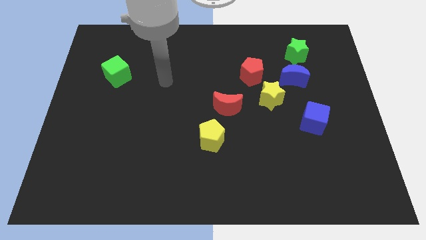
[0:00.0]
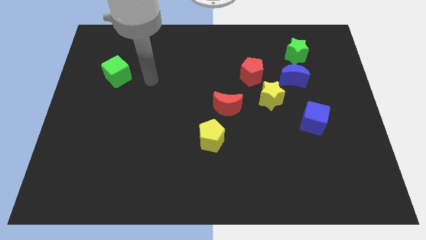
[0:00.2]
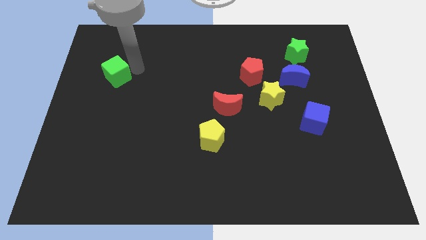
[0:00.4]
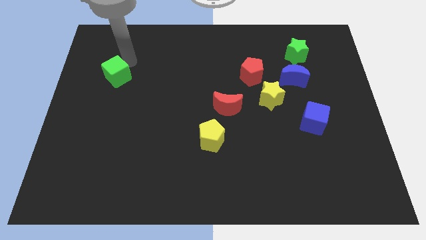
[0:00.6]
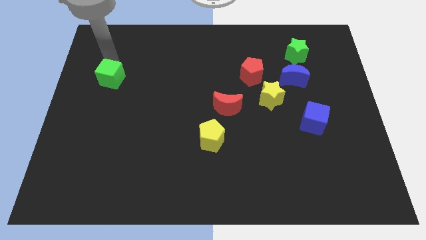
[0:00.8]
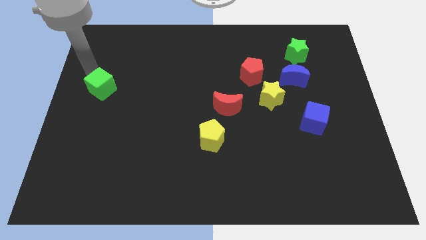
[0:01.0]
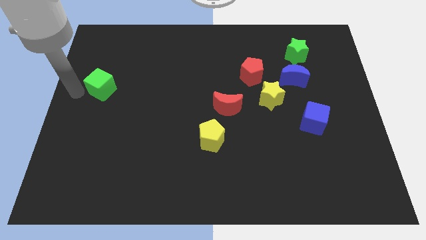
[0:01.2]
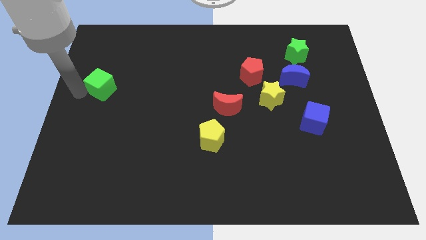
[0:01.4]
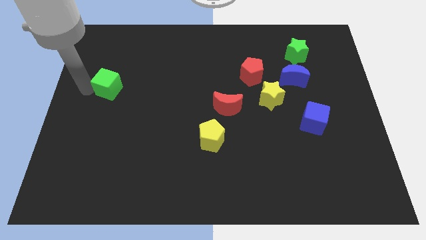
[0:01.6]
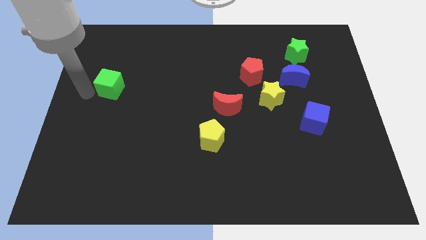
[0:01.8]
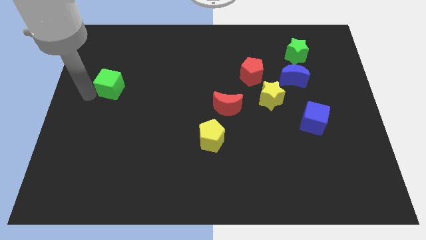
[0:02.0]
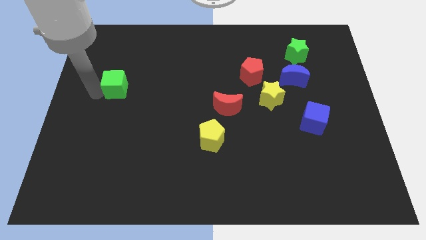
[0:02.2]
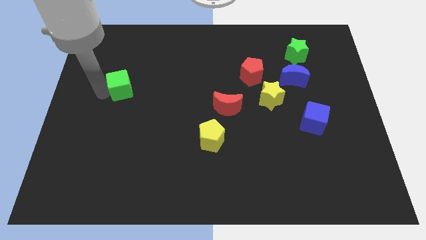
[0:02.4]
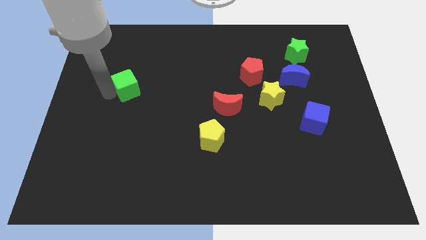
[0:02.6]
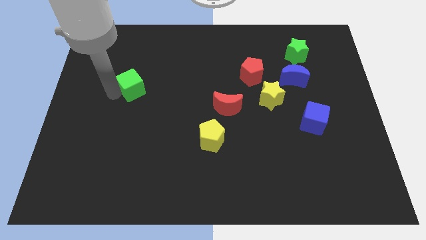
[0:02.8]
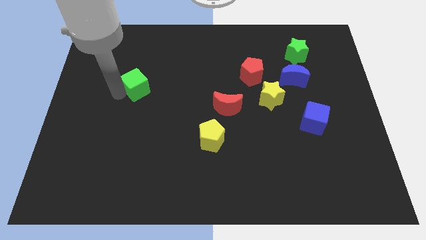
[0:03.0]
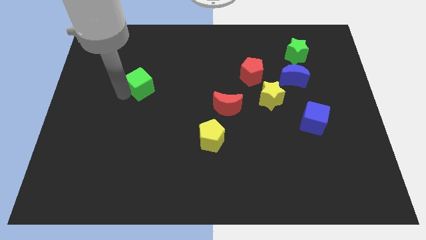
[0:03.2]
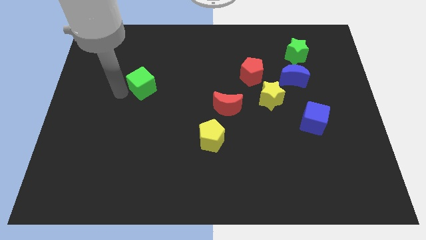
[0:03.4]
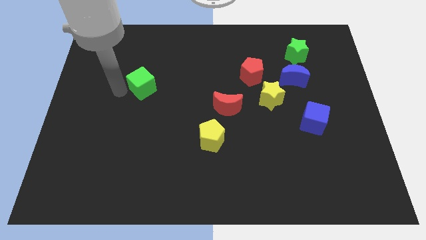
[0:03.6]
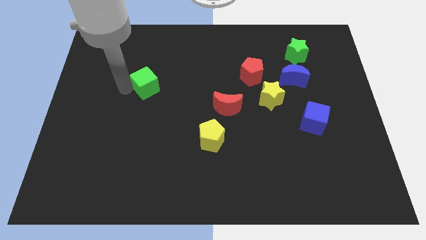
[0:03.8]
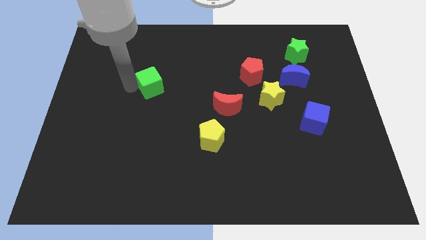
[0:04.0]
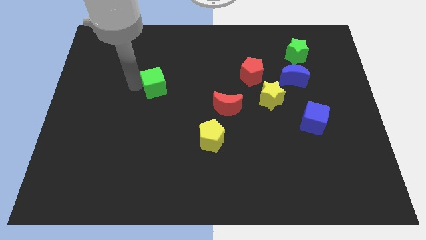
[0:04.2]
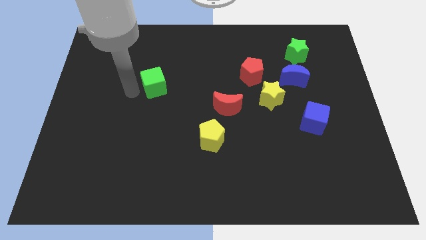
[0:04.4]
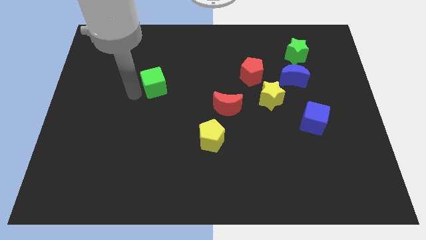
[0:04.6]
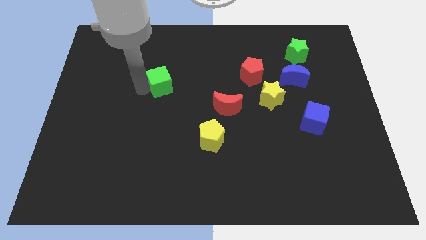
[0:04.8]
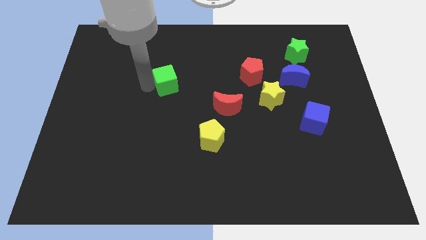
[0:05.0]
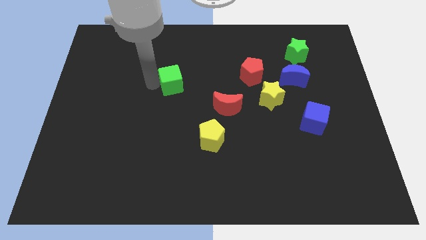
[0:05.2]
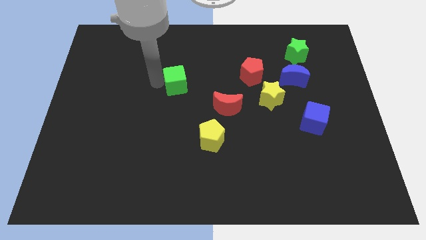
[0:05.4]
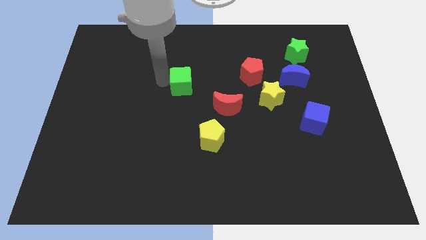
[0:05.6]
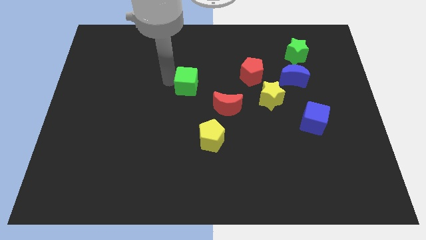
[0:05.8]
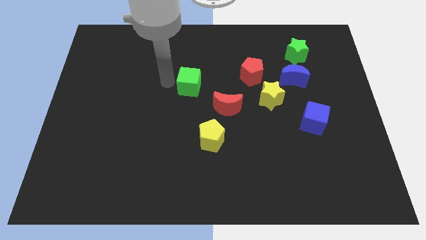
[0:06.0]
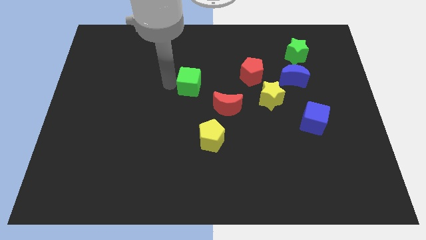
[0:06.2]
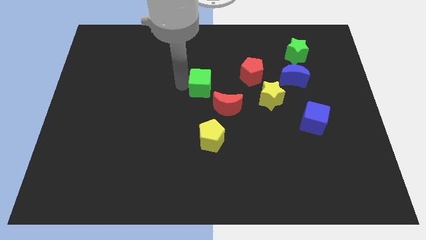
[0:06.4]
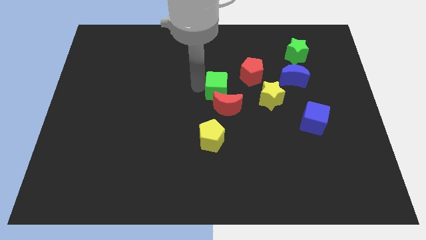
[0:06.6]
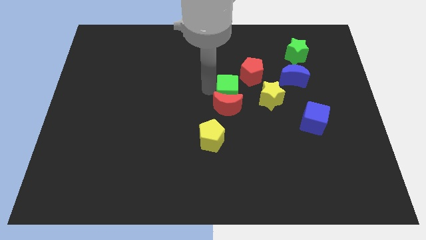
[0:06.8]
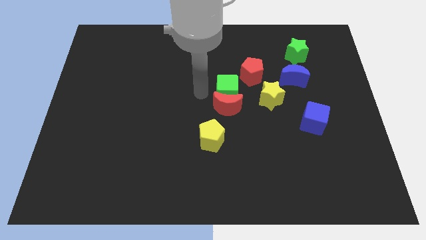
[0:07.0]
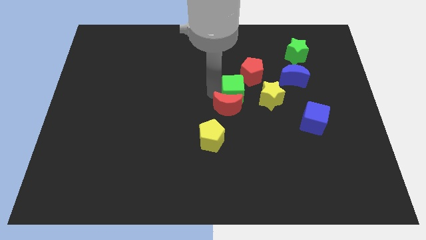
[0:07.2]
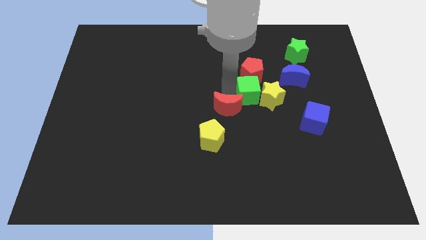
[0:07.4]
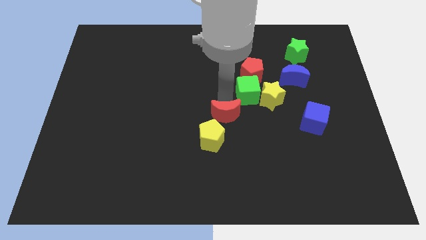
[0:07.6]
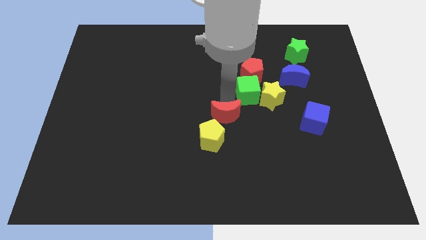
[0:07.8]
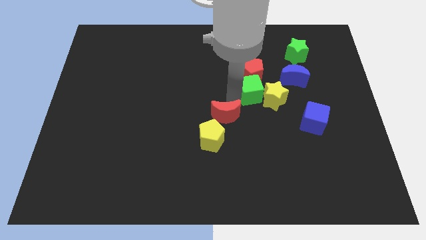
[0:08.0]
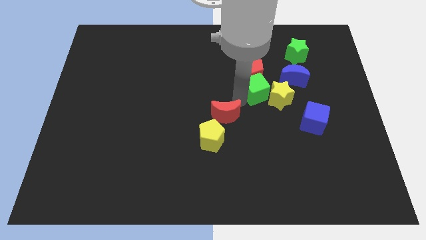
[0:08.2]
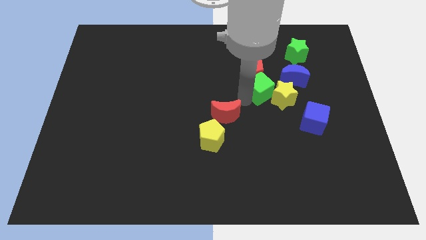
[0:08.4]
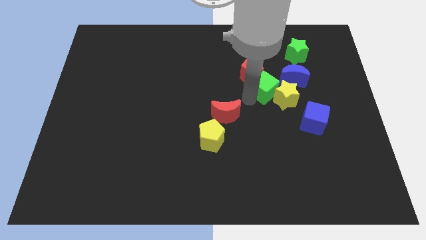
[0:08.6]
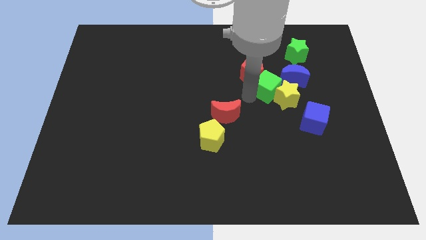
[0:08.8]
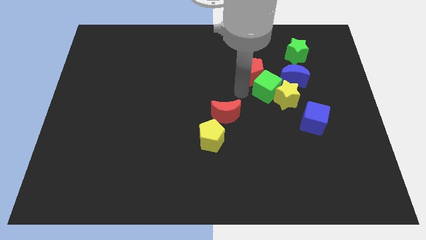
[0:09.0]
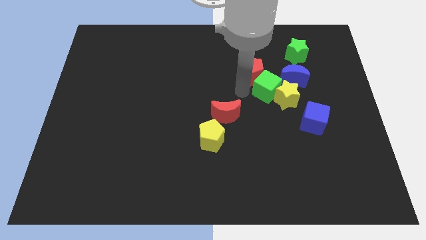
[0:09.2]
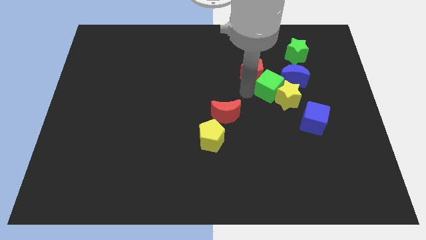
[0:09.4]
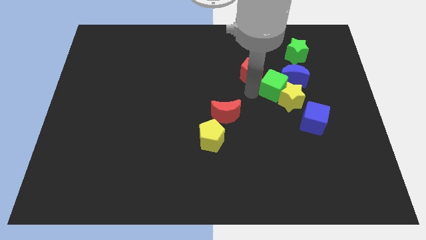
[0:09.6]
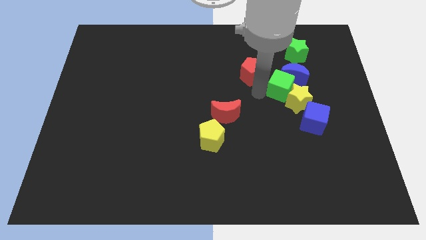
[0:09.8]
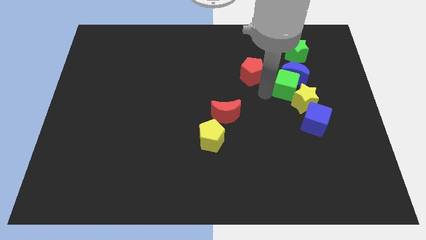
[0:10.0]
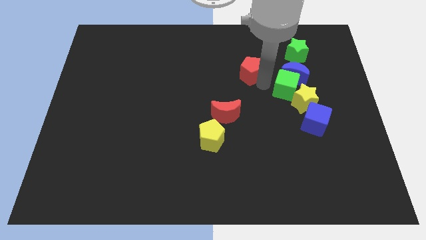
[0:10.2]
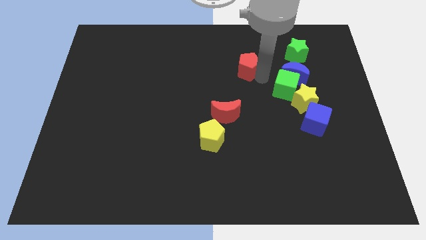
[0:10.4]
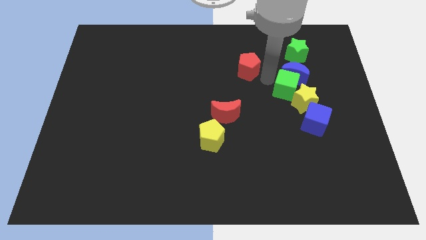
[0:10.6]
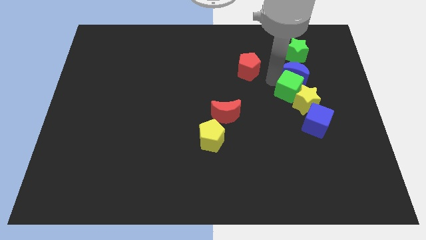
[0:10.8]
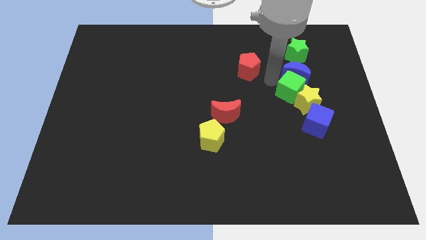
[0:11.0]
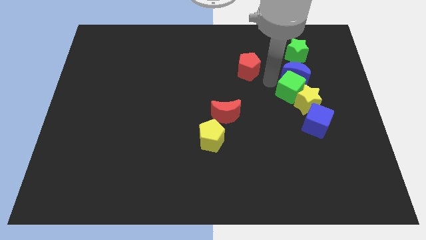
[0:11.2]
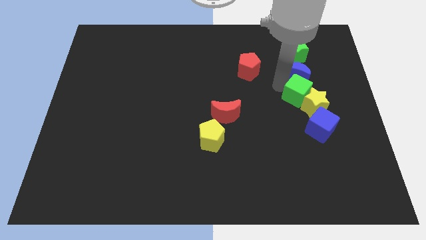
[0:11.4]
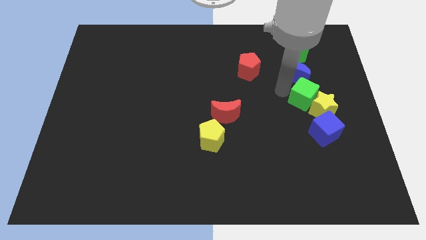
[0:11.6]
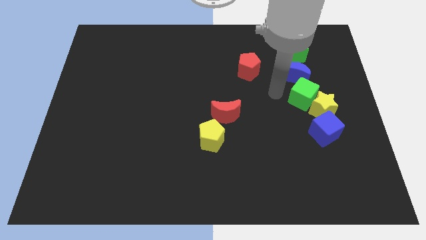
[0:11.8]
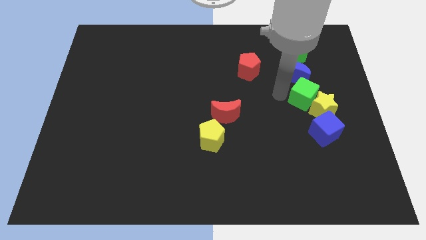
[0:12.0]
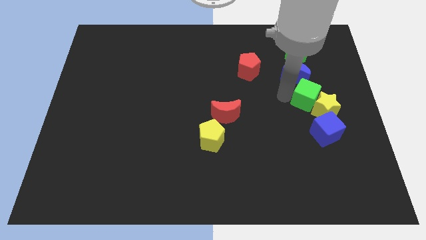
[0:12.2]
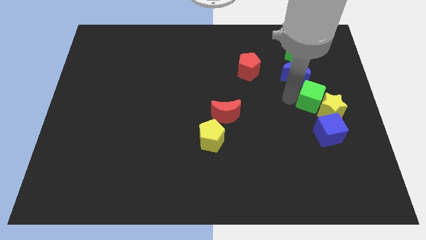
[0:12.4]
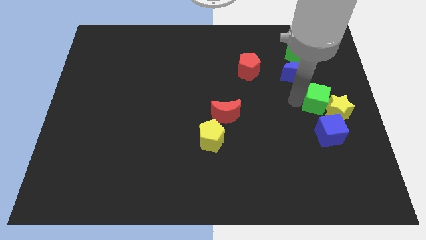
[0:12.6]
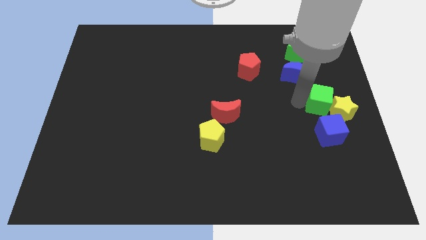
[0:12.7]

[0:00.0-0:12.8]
move the green cube to the center right
